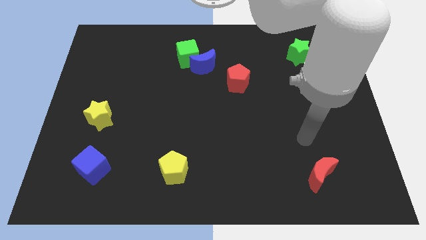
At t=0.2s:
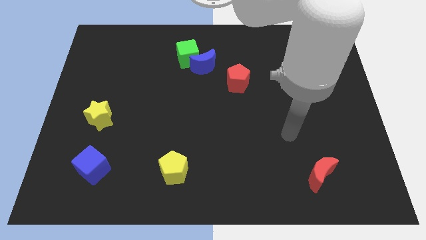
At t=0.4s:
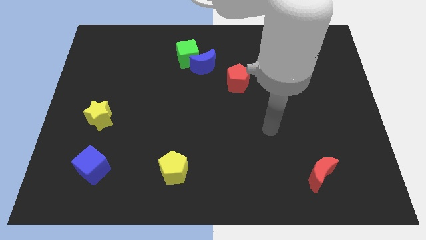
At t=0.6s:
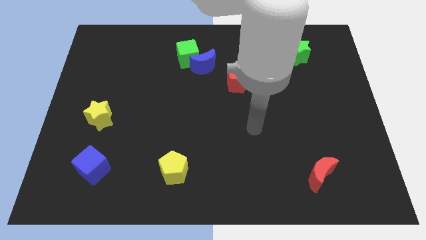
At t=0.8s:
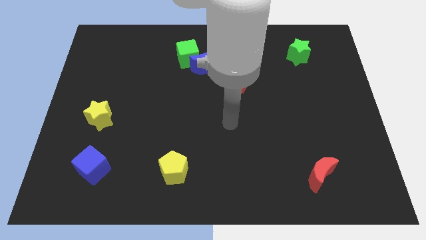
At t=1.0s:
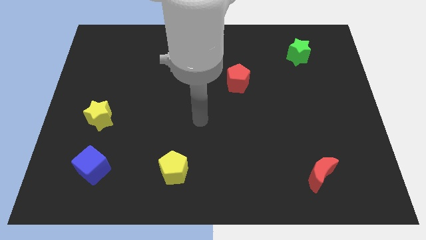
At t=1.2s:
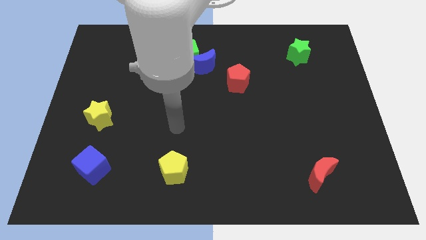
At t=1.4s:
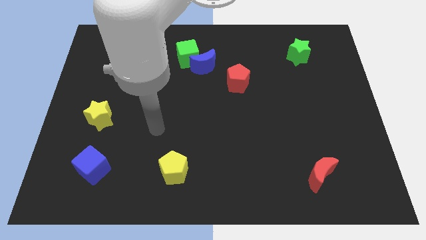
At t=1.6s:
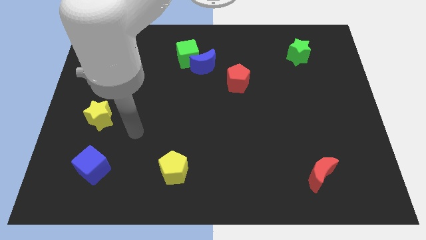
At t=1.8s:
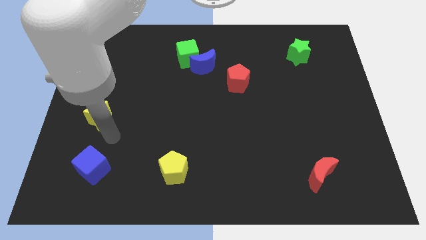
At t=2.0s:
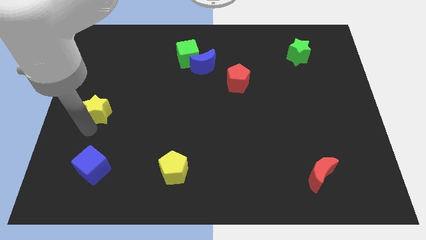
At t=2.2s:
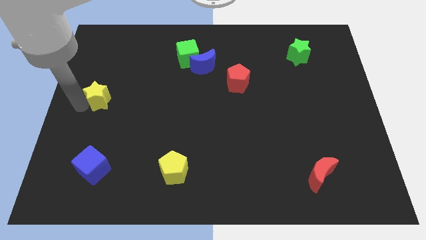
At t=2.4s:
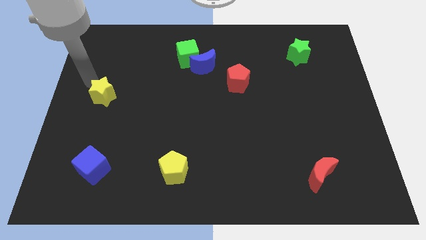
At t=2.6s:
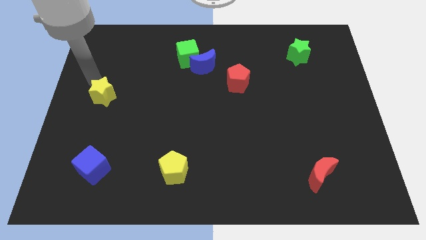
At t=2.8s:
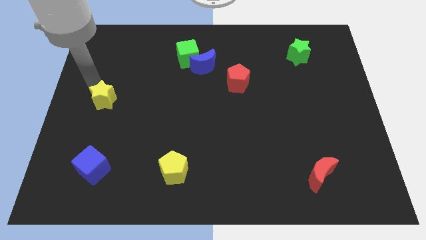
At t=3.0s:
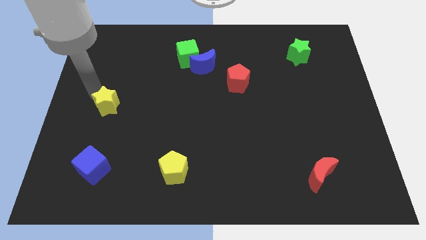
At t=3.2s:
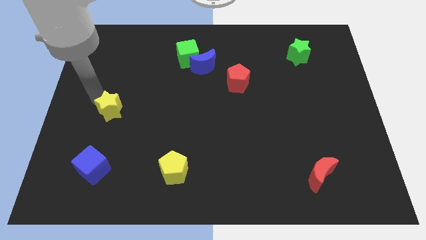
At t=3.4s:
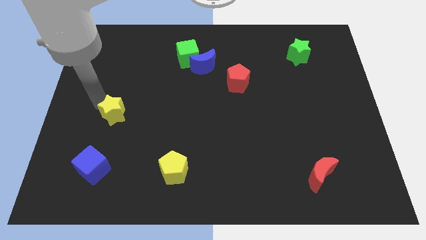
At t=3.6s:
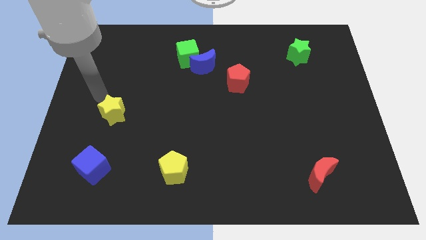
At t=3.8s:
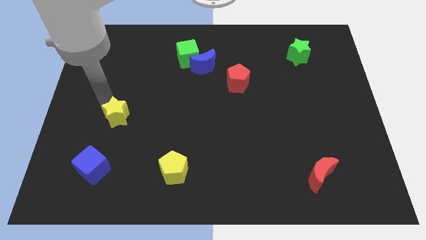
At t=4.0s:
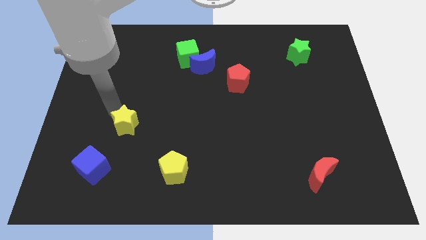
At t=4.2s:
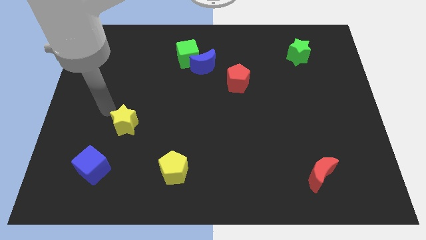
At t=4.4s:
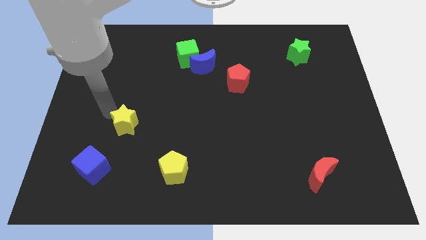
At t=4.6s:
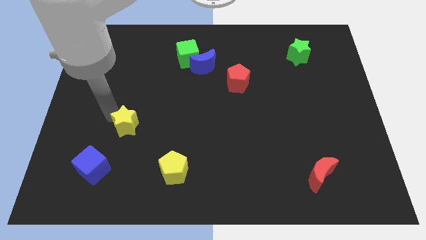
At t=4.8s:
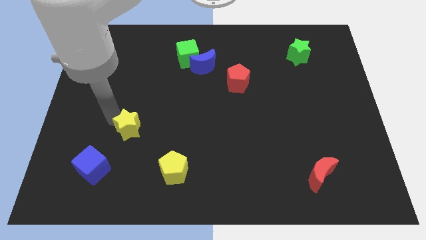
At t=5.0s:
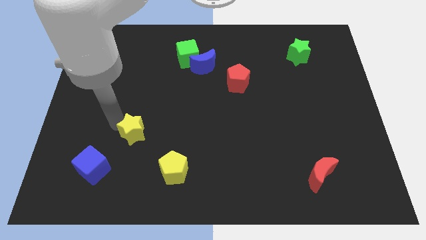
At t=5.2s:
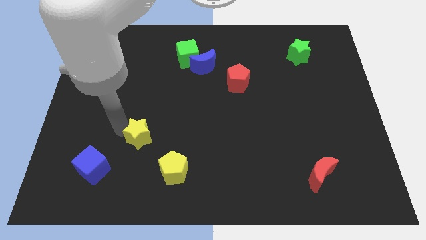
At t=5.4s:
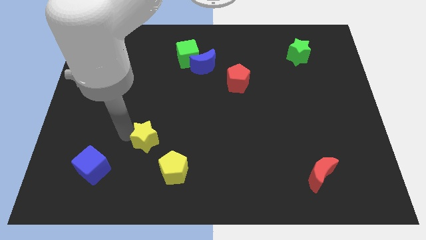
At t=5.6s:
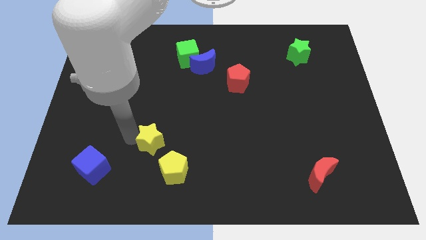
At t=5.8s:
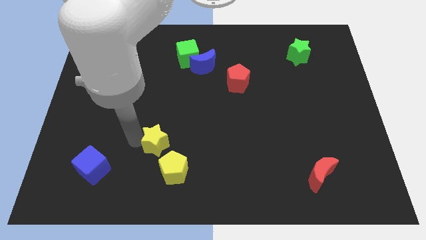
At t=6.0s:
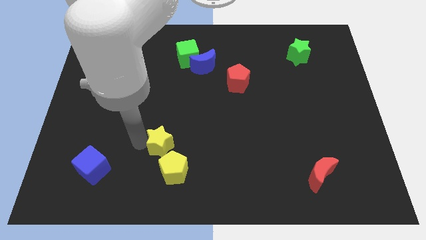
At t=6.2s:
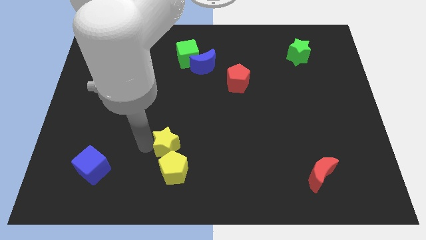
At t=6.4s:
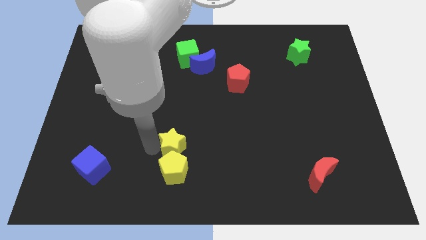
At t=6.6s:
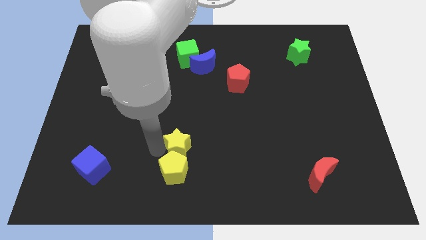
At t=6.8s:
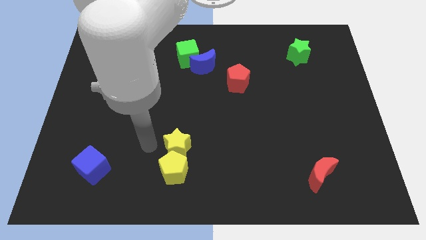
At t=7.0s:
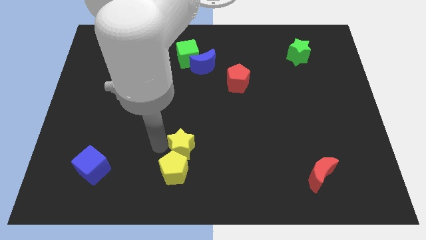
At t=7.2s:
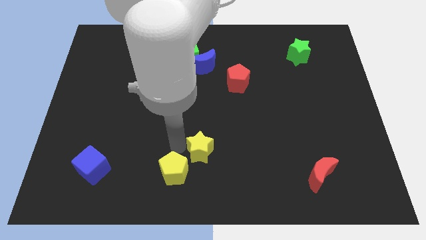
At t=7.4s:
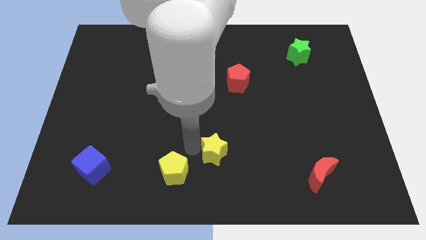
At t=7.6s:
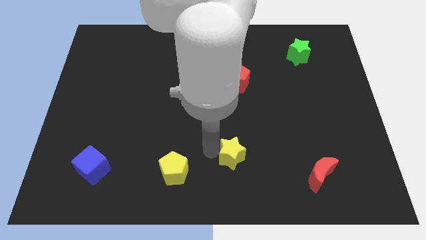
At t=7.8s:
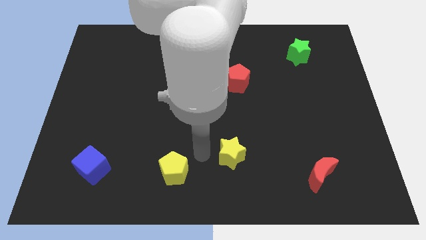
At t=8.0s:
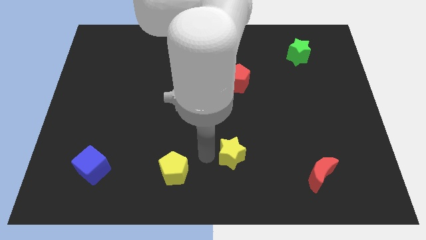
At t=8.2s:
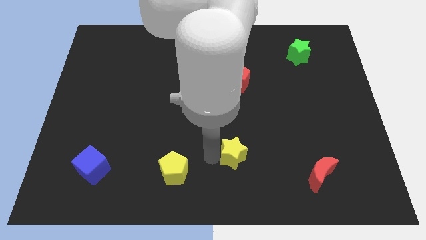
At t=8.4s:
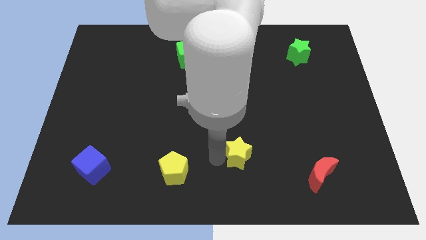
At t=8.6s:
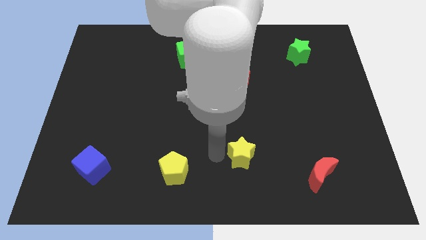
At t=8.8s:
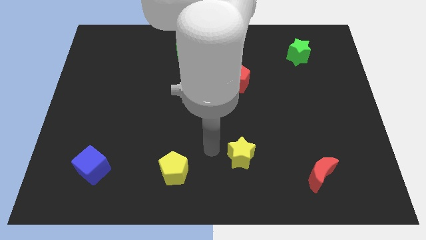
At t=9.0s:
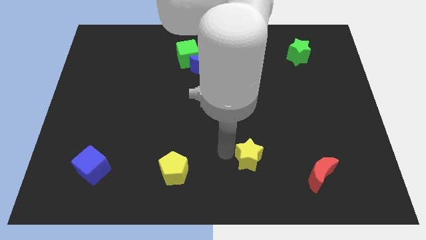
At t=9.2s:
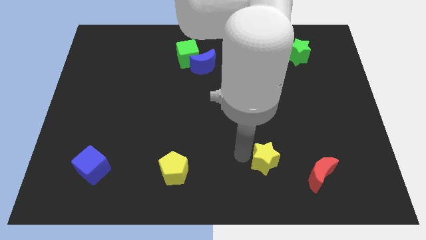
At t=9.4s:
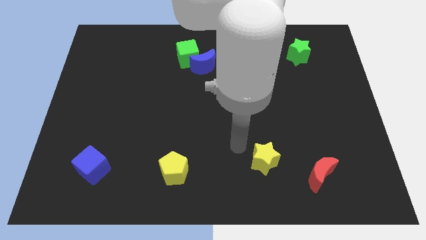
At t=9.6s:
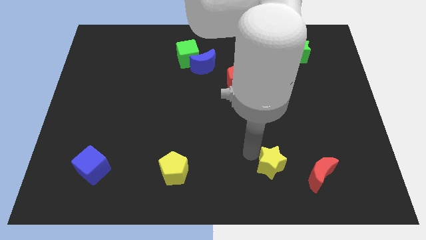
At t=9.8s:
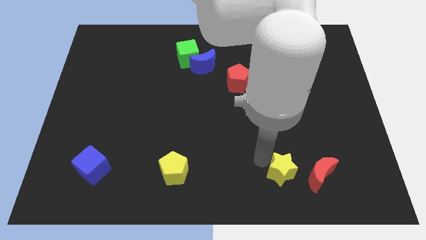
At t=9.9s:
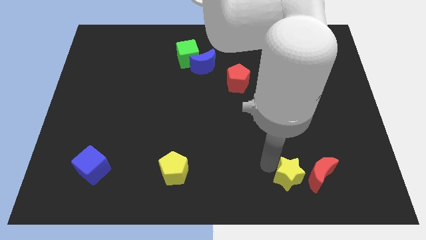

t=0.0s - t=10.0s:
slide the yellow star close to the red moon

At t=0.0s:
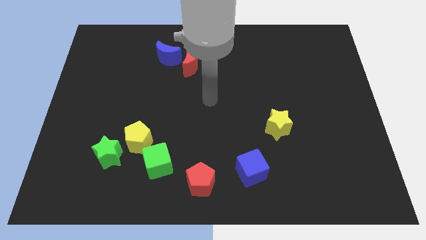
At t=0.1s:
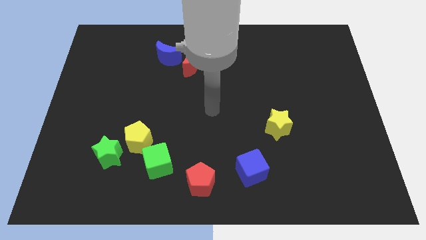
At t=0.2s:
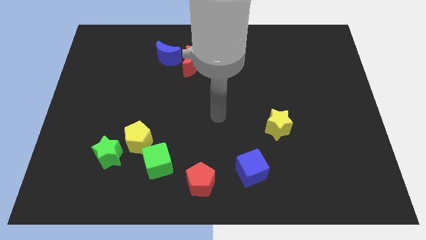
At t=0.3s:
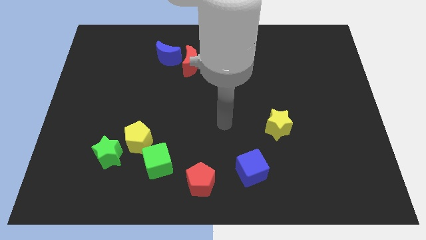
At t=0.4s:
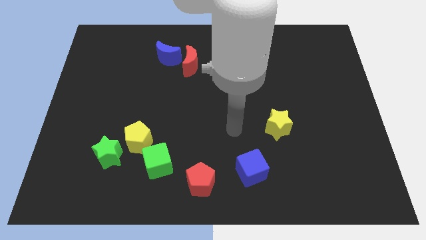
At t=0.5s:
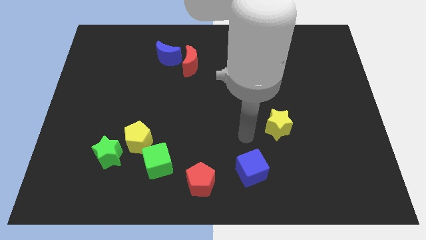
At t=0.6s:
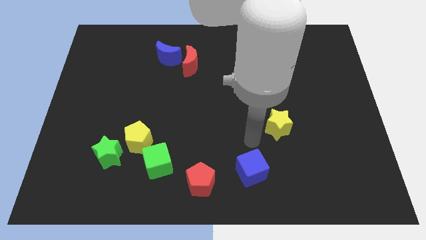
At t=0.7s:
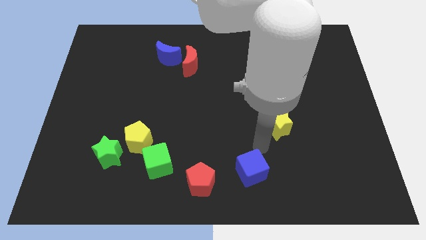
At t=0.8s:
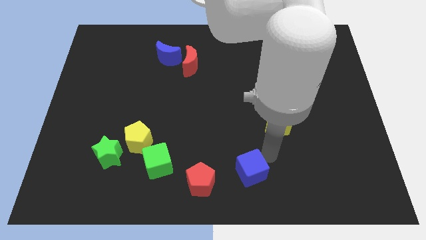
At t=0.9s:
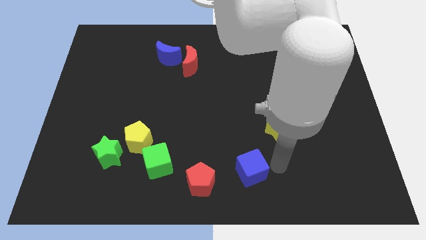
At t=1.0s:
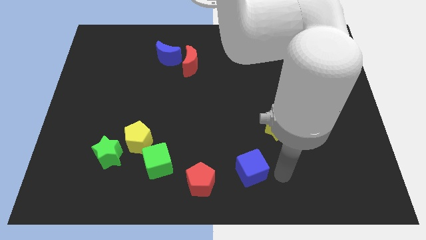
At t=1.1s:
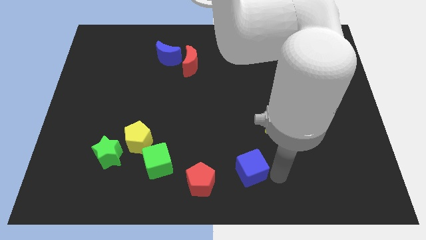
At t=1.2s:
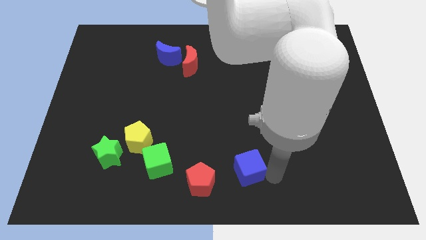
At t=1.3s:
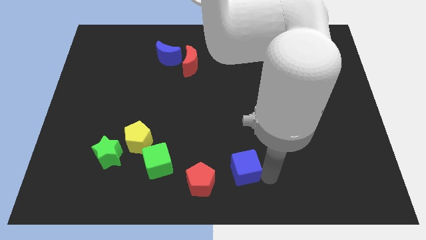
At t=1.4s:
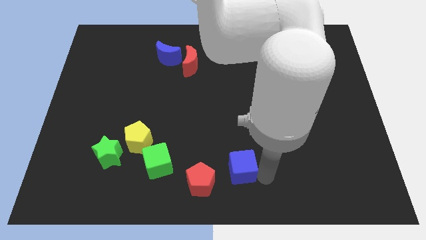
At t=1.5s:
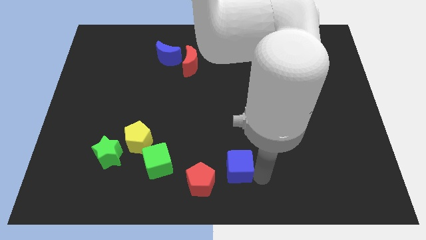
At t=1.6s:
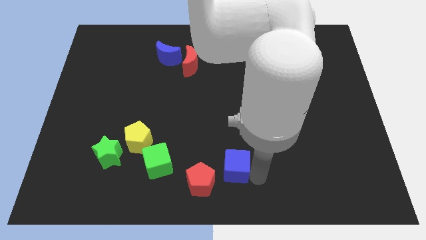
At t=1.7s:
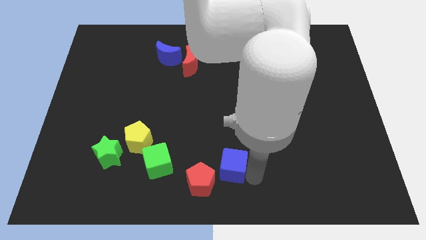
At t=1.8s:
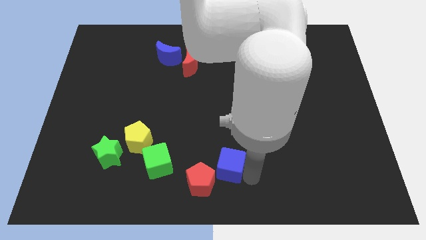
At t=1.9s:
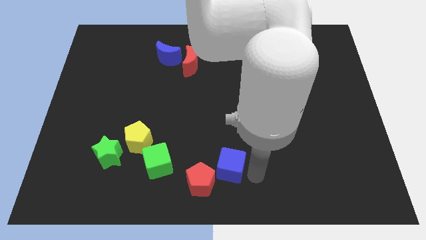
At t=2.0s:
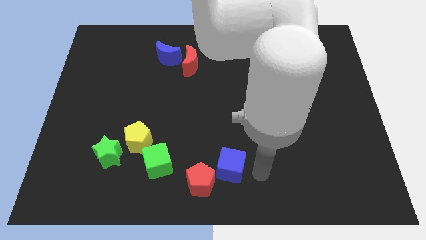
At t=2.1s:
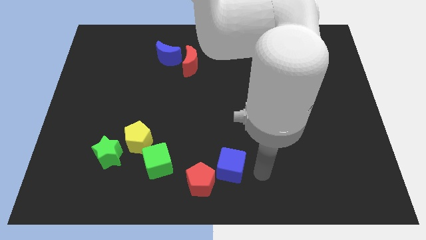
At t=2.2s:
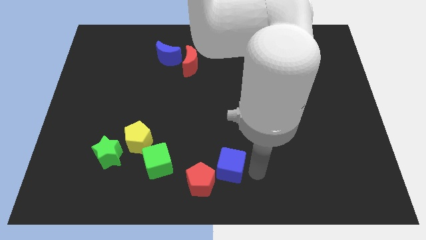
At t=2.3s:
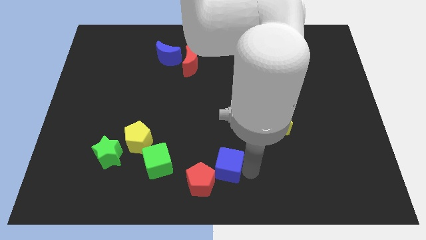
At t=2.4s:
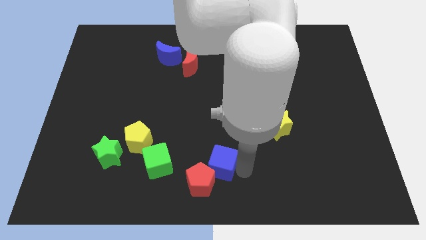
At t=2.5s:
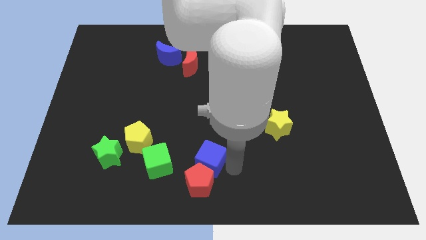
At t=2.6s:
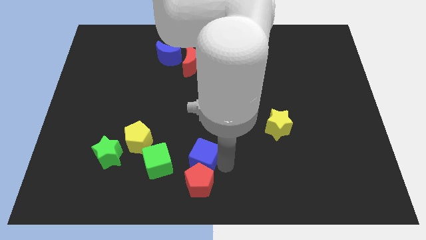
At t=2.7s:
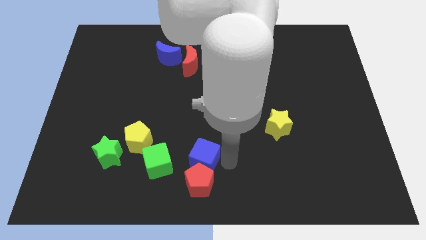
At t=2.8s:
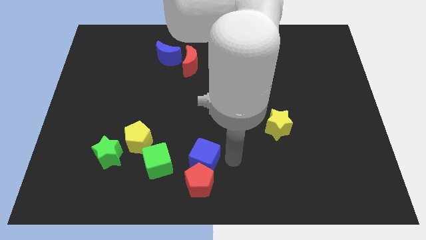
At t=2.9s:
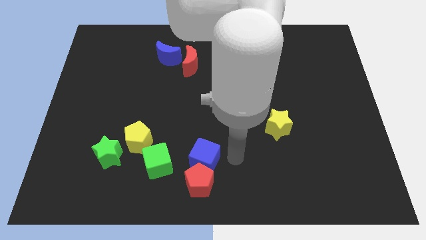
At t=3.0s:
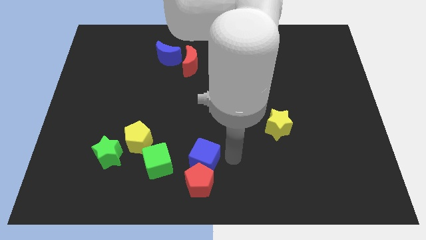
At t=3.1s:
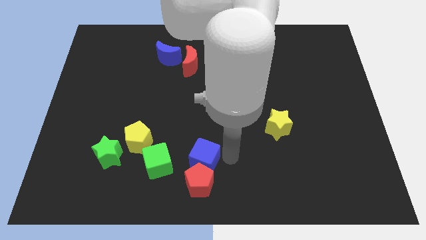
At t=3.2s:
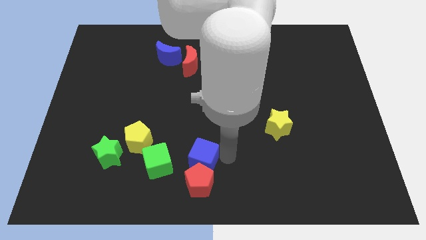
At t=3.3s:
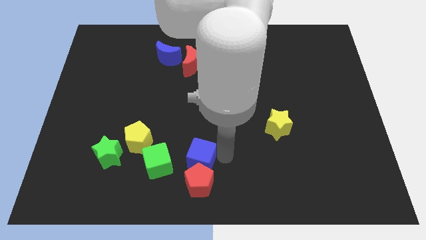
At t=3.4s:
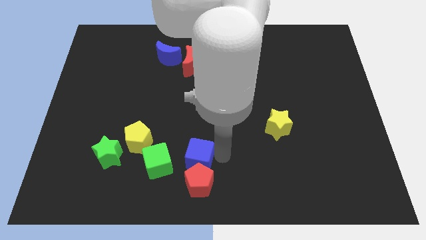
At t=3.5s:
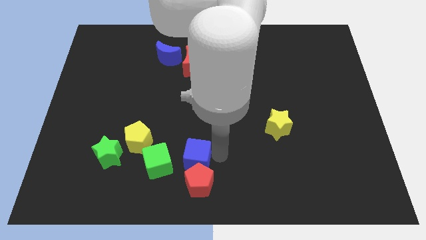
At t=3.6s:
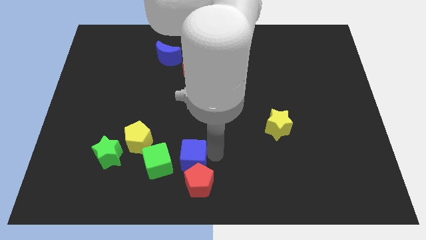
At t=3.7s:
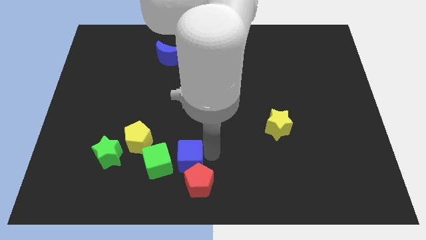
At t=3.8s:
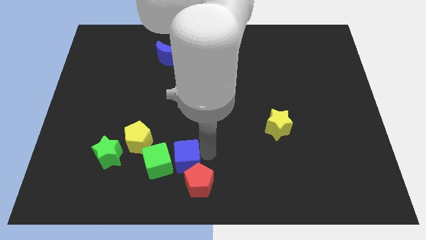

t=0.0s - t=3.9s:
move the blue cube to the green cube
